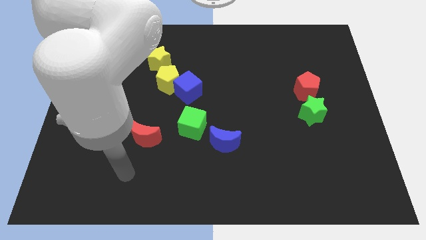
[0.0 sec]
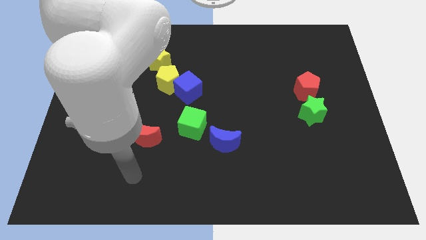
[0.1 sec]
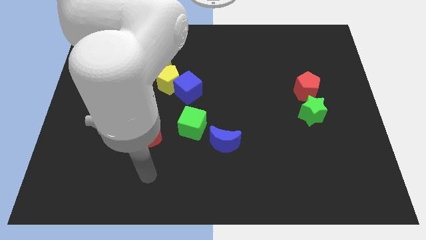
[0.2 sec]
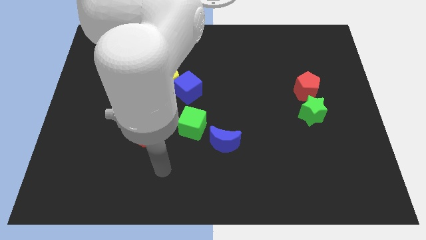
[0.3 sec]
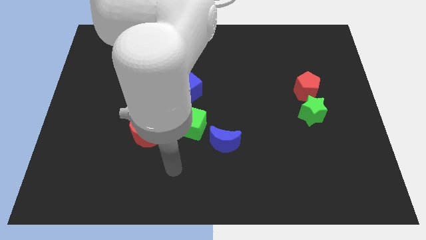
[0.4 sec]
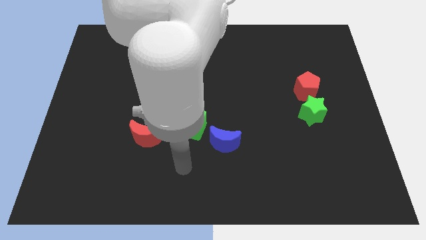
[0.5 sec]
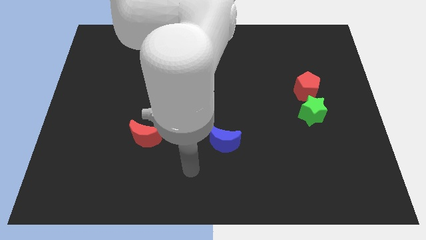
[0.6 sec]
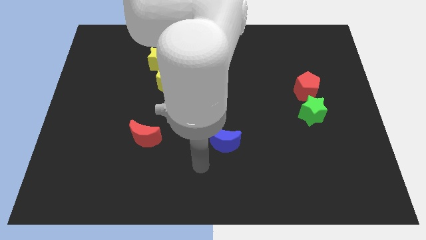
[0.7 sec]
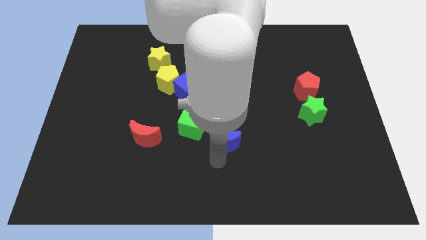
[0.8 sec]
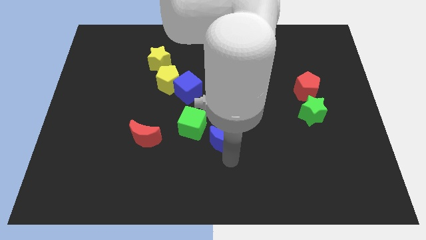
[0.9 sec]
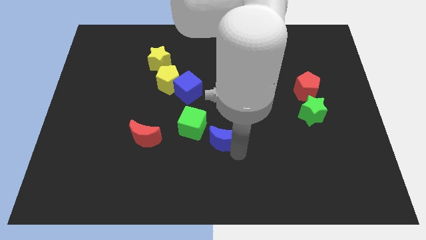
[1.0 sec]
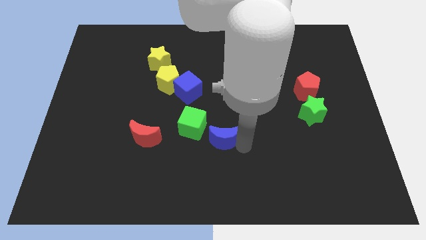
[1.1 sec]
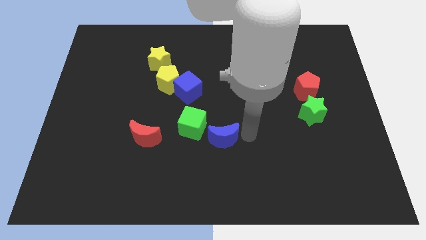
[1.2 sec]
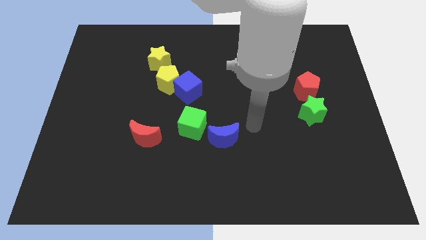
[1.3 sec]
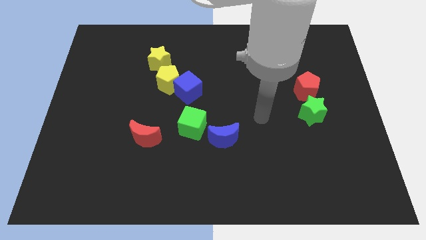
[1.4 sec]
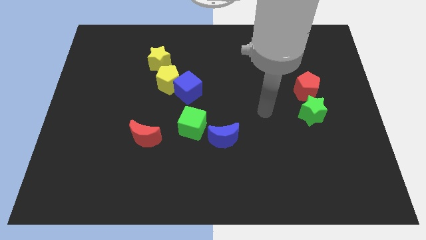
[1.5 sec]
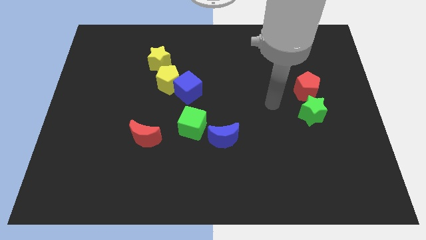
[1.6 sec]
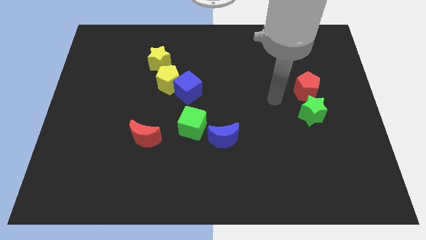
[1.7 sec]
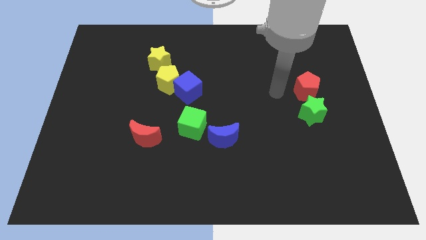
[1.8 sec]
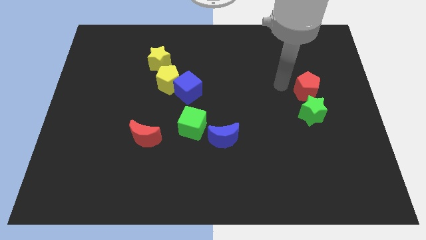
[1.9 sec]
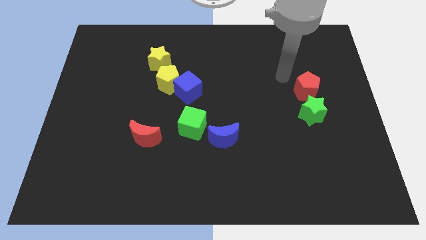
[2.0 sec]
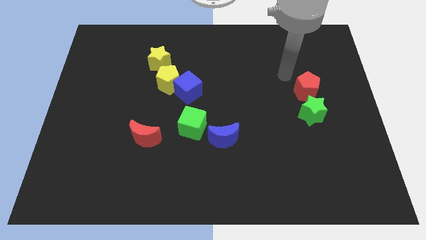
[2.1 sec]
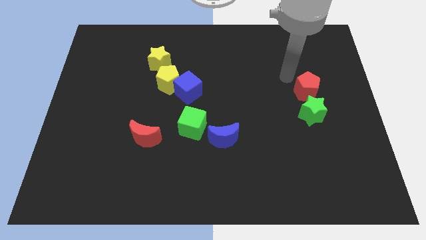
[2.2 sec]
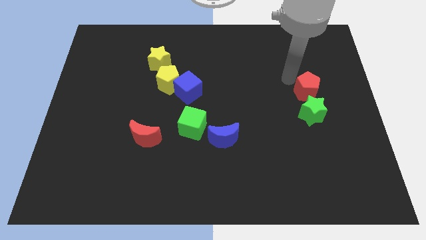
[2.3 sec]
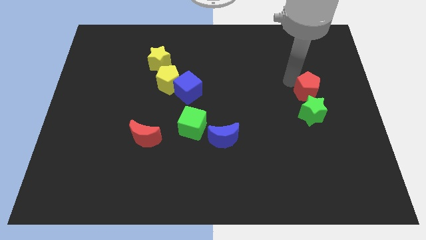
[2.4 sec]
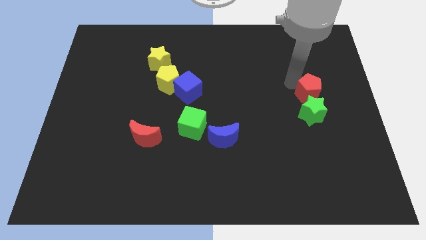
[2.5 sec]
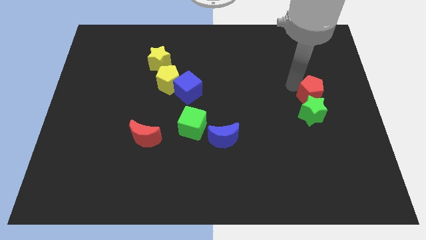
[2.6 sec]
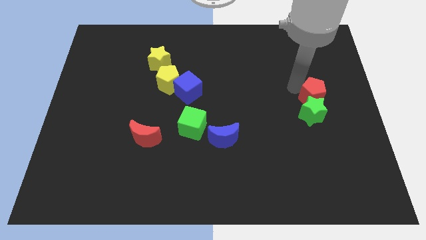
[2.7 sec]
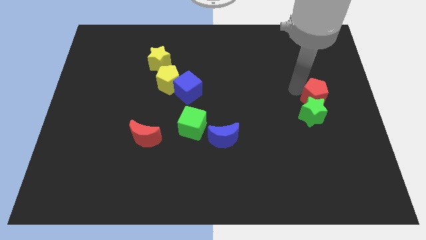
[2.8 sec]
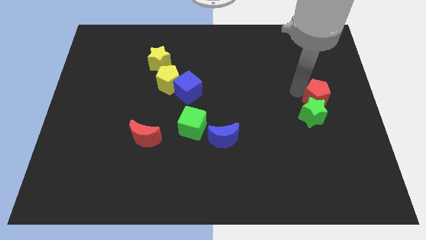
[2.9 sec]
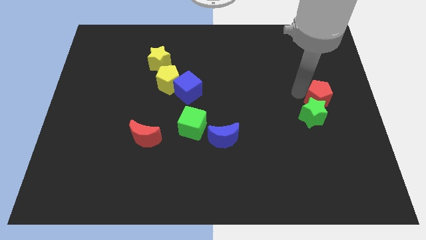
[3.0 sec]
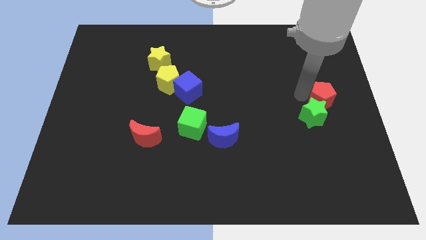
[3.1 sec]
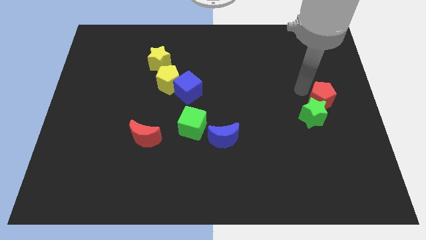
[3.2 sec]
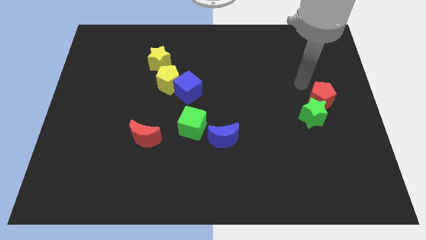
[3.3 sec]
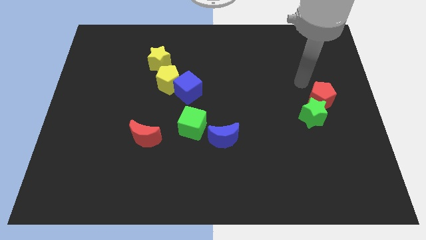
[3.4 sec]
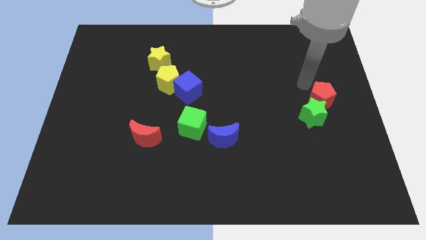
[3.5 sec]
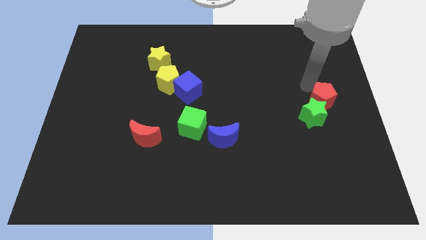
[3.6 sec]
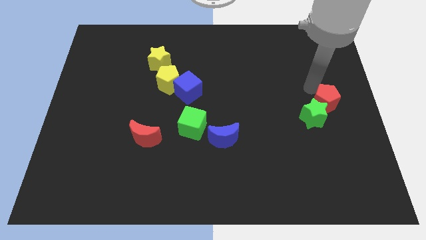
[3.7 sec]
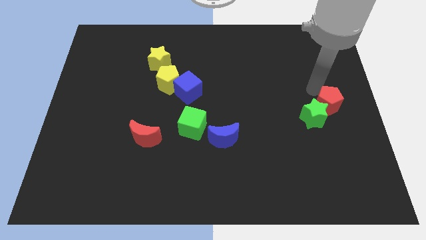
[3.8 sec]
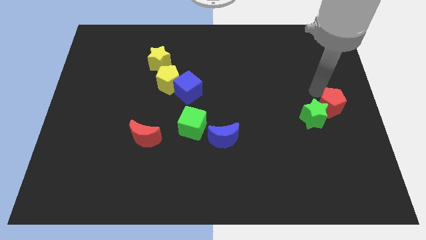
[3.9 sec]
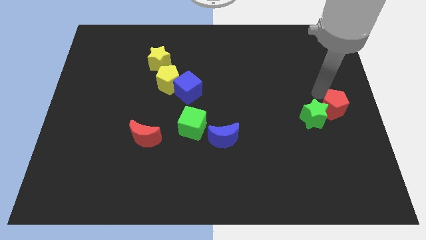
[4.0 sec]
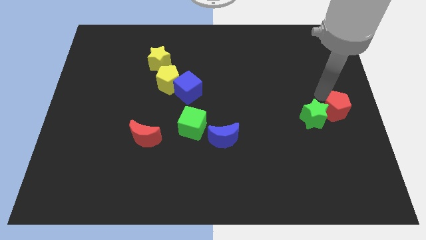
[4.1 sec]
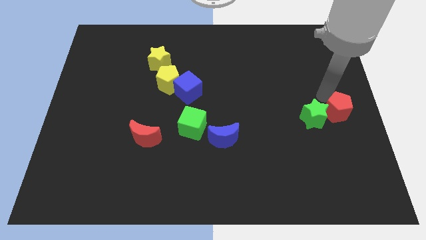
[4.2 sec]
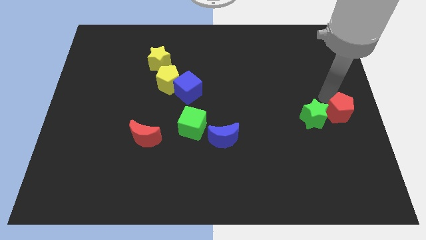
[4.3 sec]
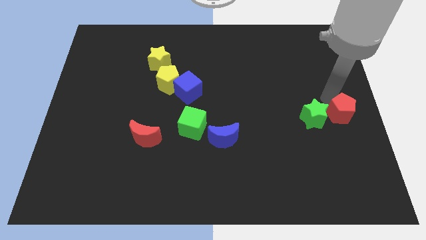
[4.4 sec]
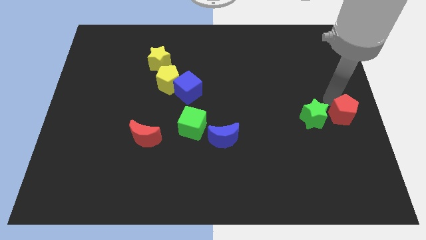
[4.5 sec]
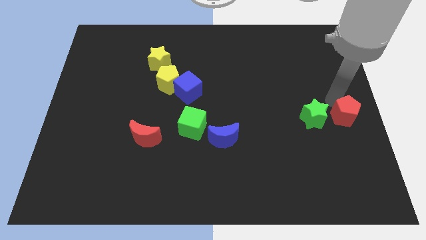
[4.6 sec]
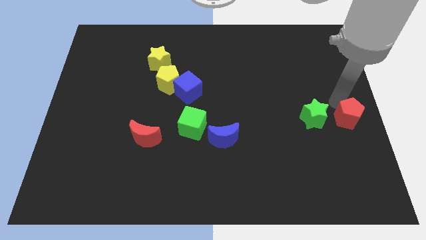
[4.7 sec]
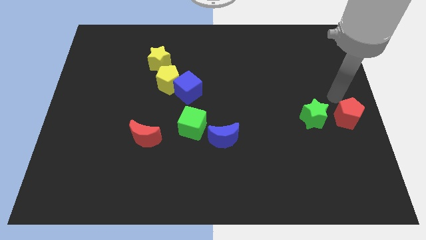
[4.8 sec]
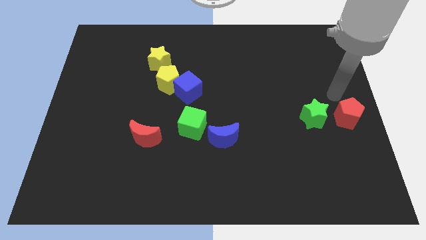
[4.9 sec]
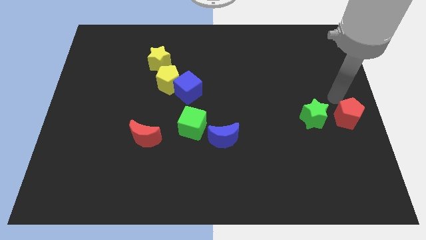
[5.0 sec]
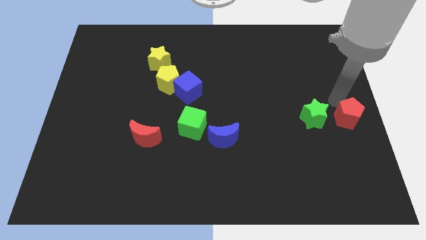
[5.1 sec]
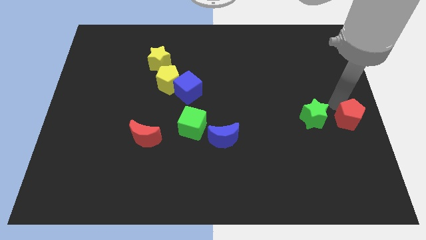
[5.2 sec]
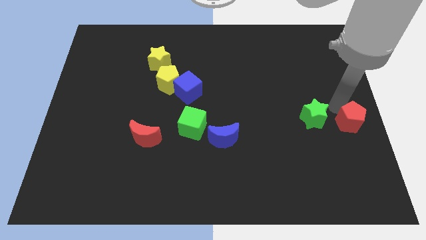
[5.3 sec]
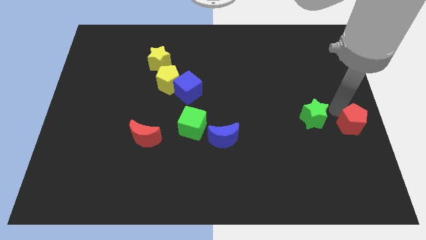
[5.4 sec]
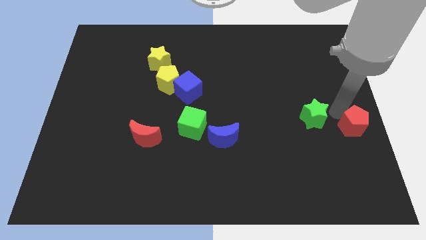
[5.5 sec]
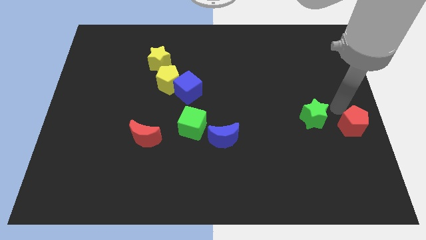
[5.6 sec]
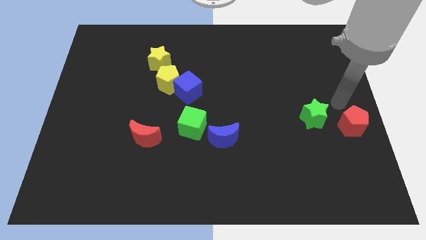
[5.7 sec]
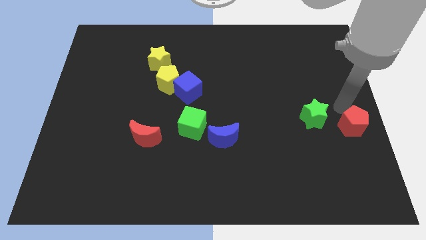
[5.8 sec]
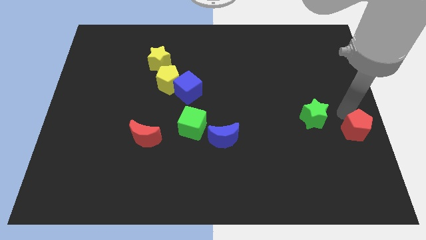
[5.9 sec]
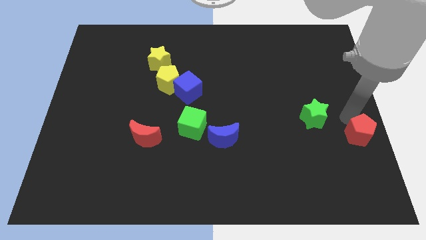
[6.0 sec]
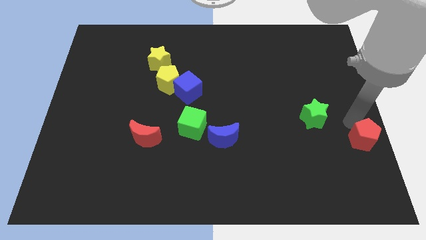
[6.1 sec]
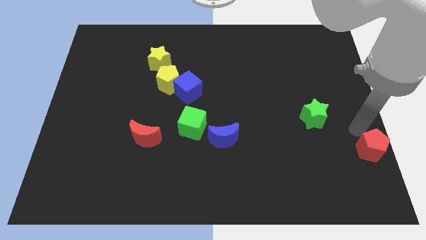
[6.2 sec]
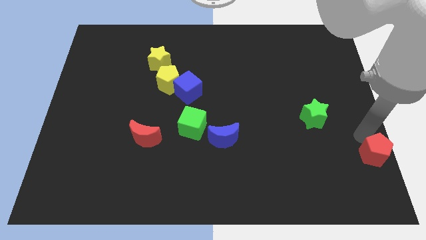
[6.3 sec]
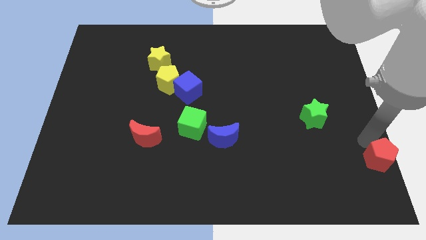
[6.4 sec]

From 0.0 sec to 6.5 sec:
push the red pentagon to the lower right corner
